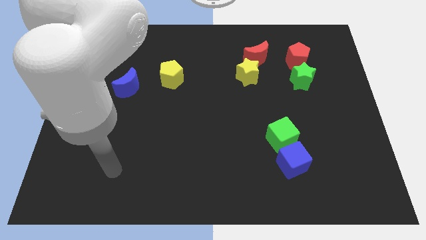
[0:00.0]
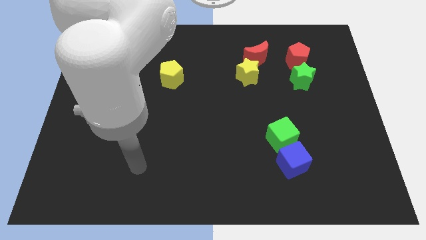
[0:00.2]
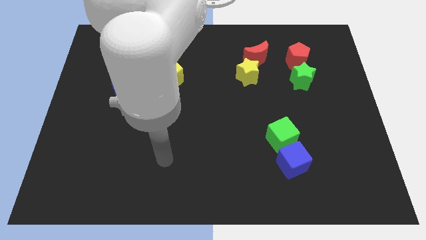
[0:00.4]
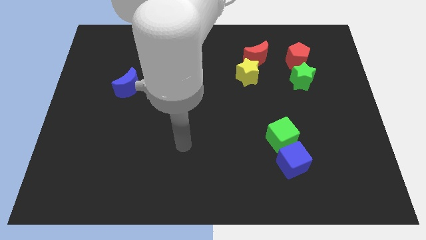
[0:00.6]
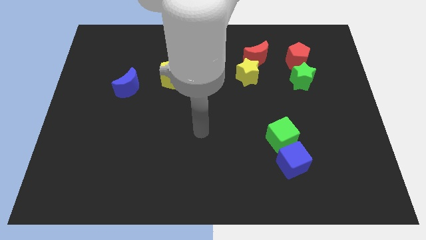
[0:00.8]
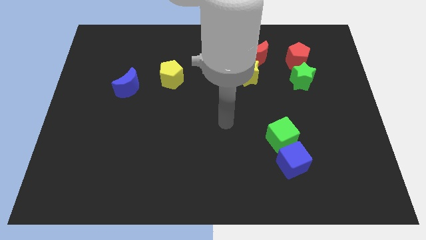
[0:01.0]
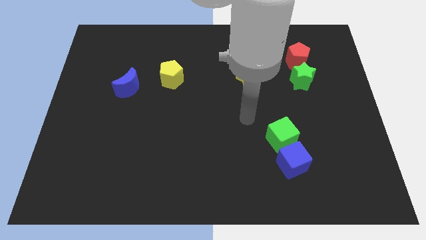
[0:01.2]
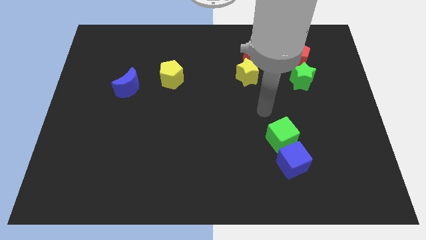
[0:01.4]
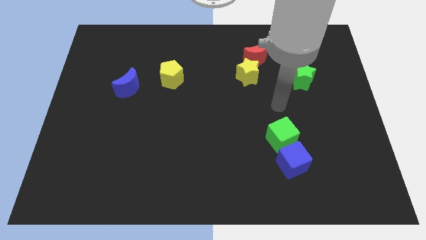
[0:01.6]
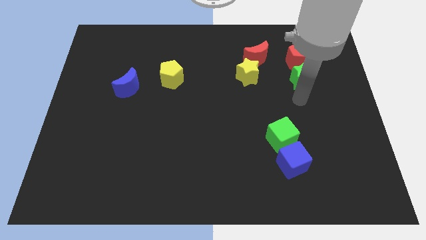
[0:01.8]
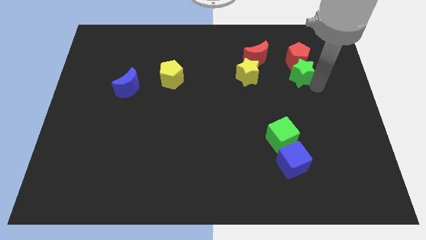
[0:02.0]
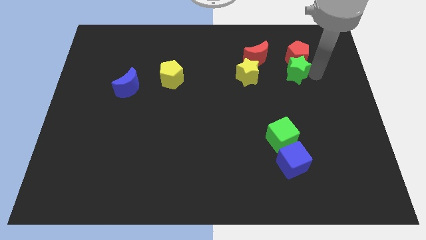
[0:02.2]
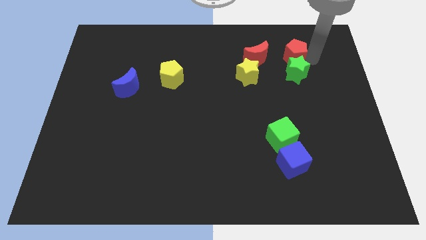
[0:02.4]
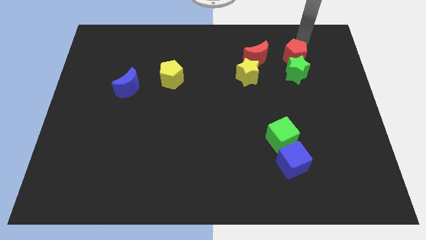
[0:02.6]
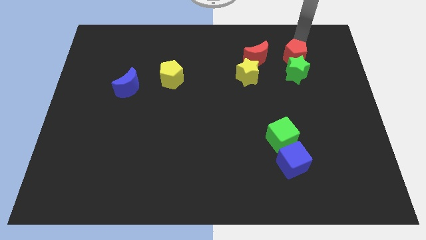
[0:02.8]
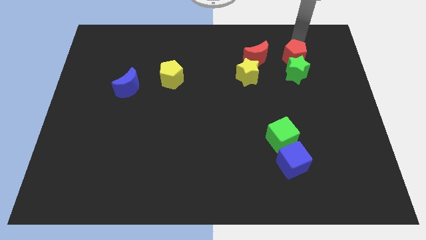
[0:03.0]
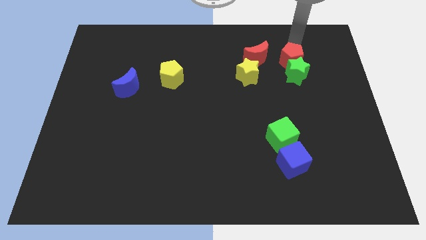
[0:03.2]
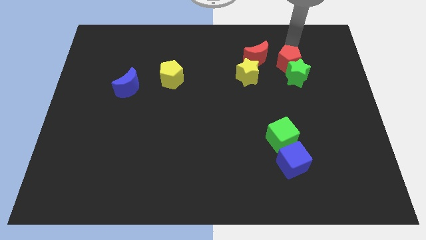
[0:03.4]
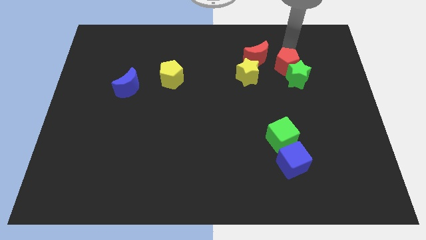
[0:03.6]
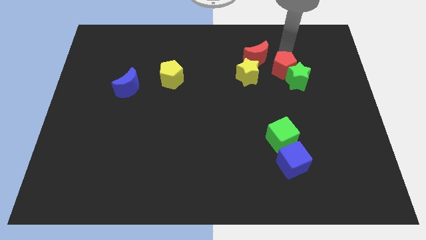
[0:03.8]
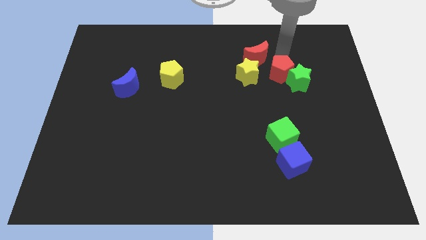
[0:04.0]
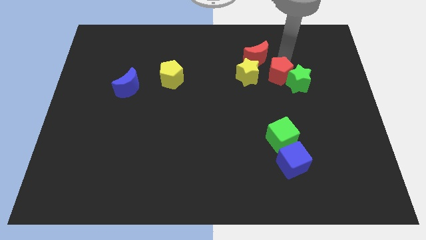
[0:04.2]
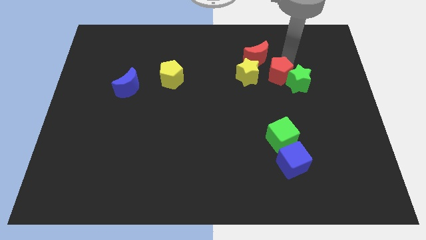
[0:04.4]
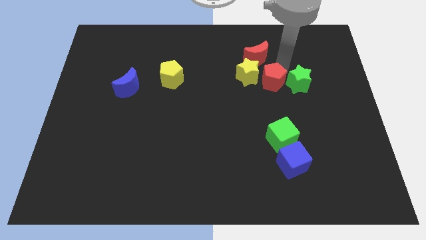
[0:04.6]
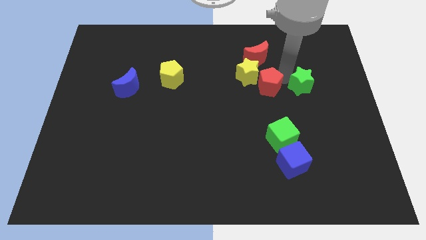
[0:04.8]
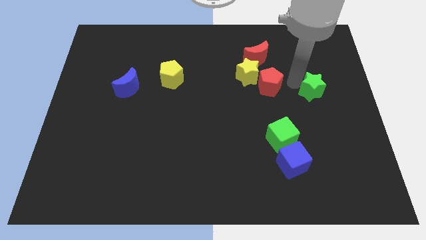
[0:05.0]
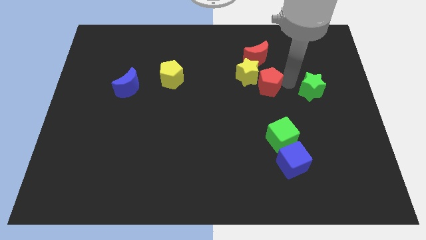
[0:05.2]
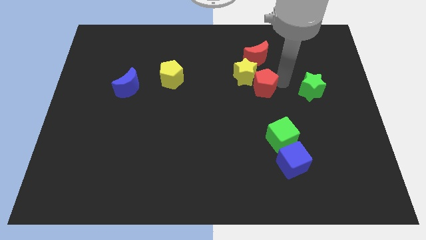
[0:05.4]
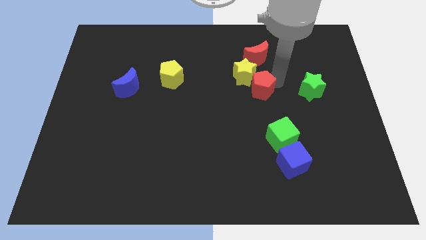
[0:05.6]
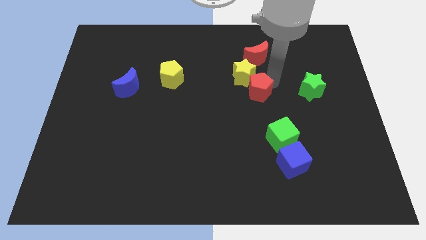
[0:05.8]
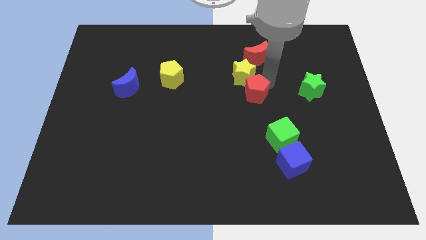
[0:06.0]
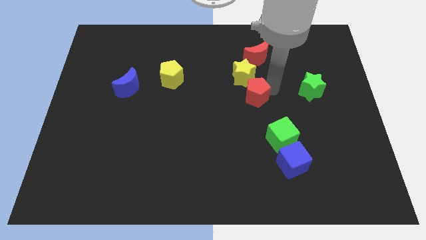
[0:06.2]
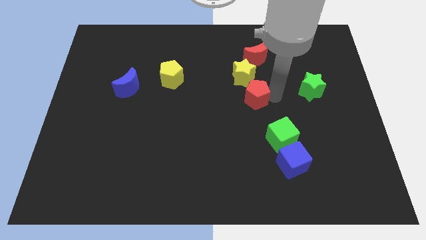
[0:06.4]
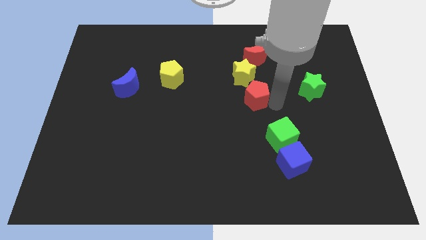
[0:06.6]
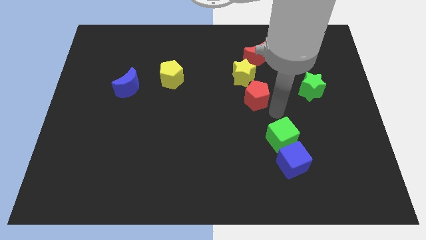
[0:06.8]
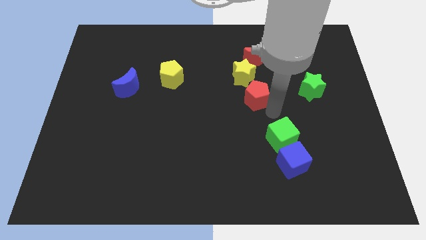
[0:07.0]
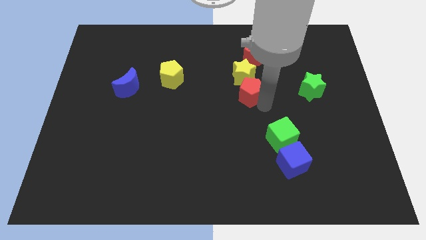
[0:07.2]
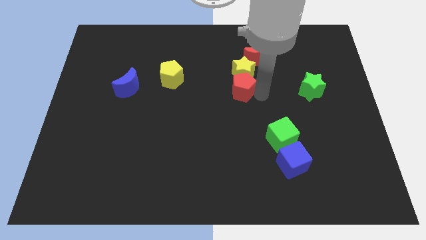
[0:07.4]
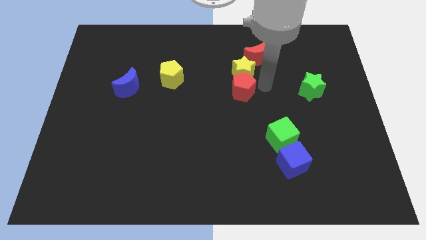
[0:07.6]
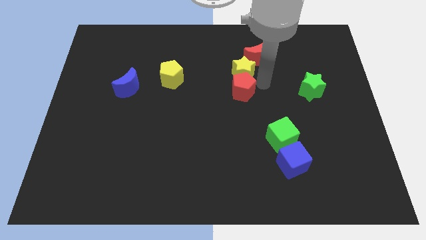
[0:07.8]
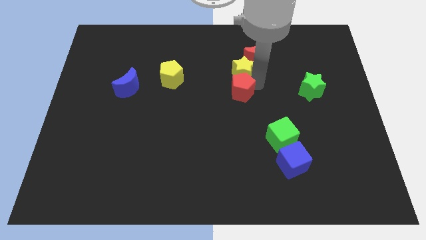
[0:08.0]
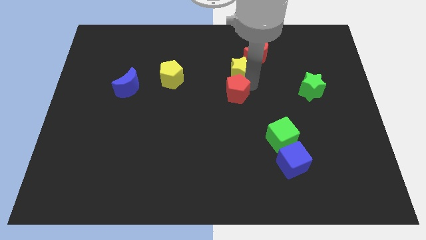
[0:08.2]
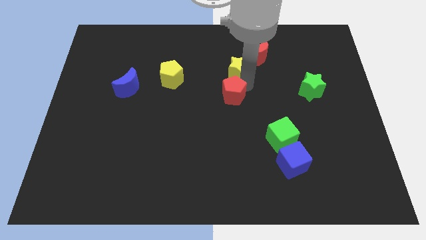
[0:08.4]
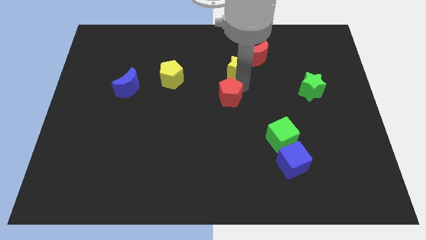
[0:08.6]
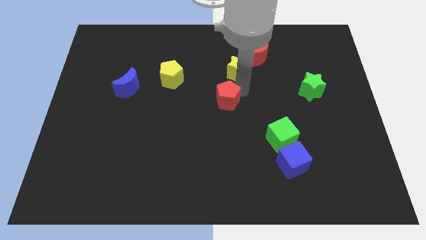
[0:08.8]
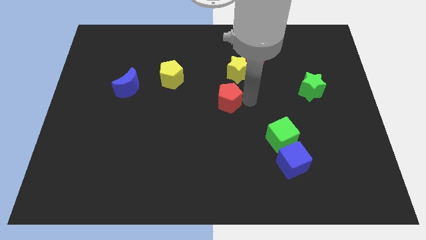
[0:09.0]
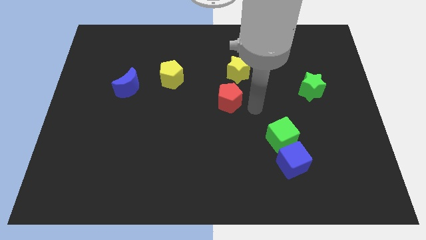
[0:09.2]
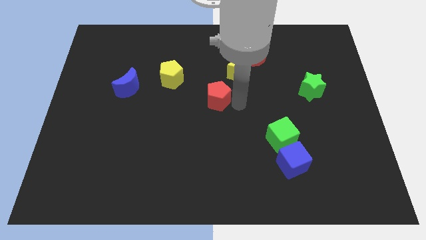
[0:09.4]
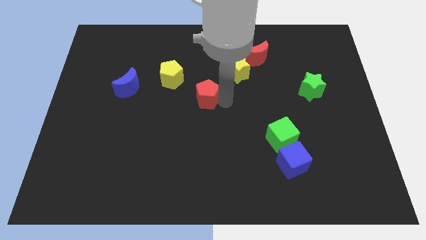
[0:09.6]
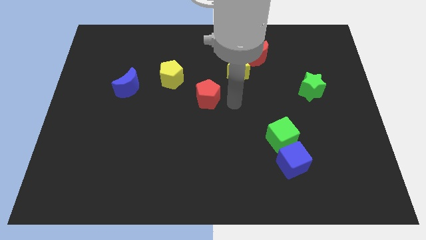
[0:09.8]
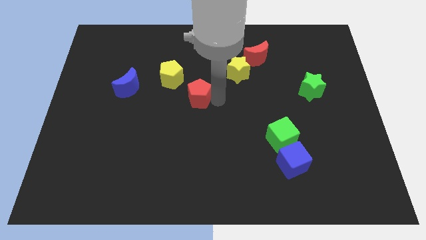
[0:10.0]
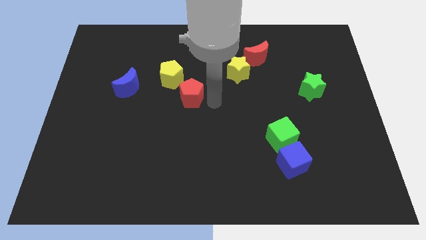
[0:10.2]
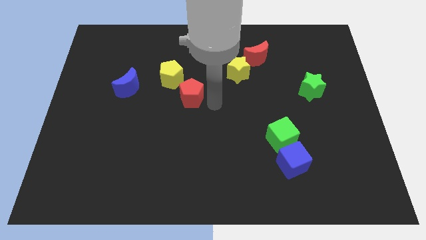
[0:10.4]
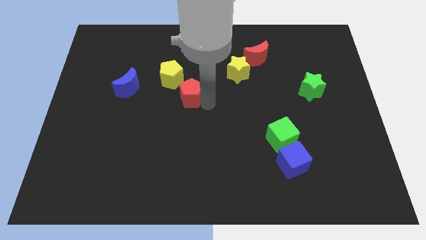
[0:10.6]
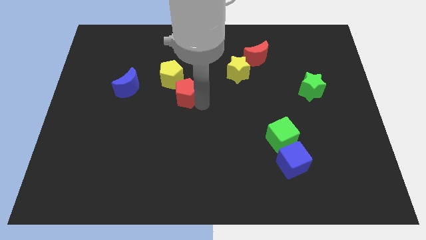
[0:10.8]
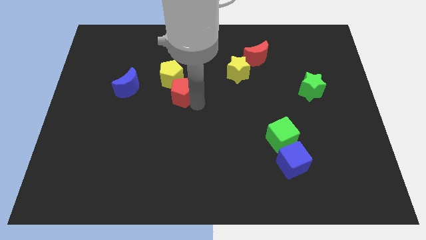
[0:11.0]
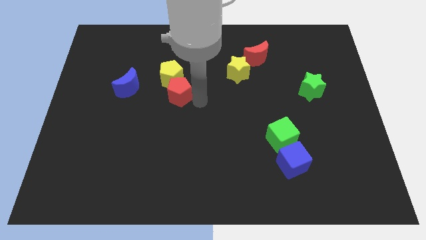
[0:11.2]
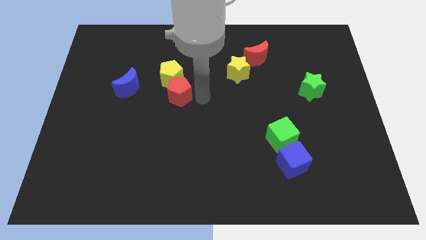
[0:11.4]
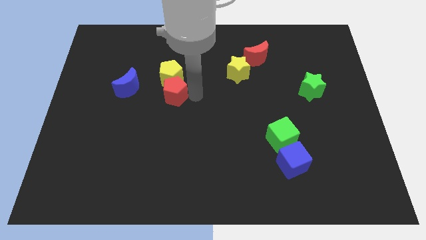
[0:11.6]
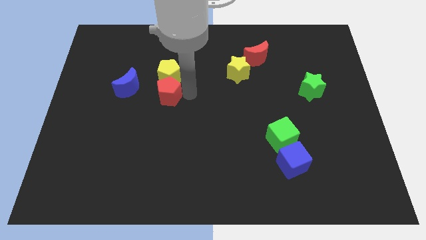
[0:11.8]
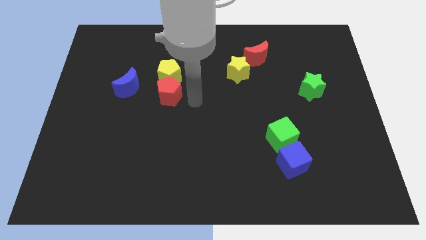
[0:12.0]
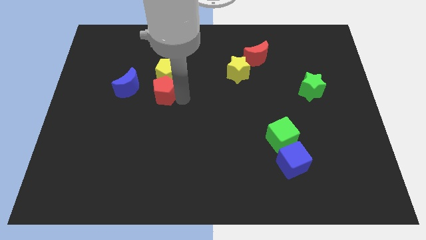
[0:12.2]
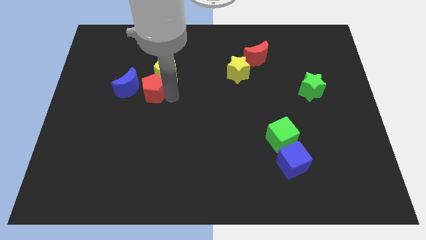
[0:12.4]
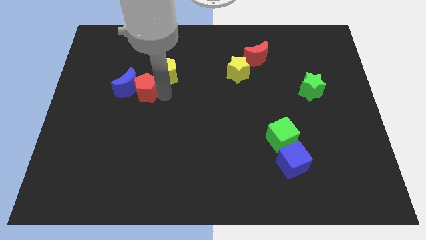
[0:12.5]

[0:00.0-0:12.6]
slide the red pentagon next to the blue moon

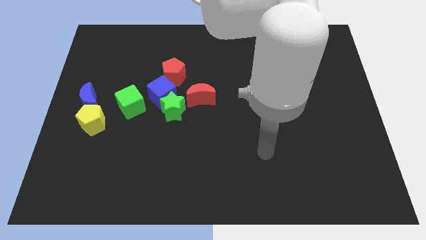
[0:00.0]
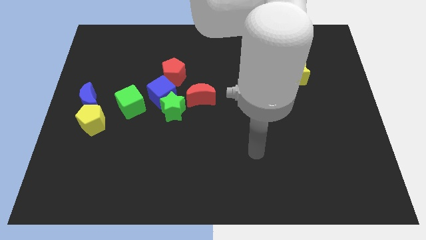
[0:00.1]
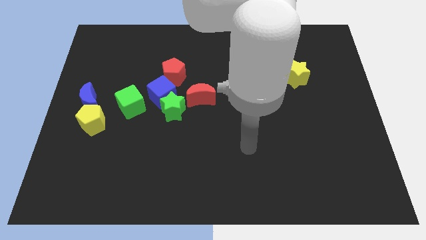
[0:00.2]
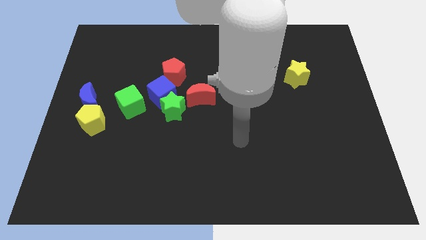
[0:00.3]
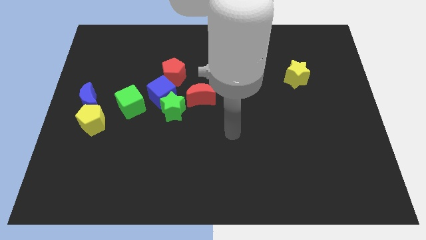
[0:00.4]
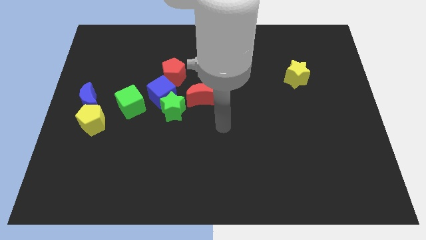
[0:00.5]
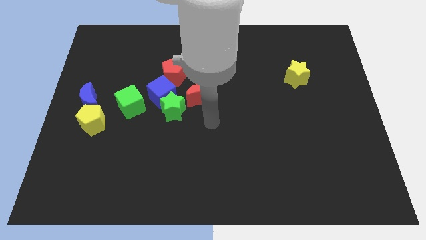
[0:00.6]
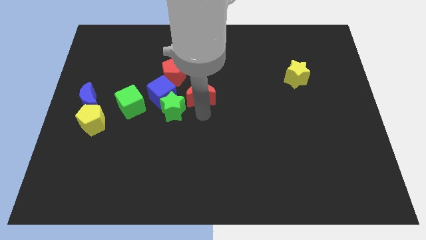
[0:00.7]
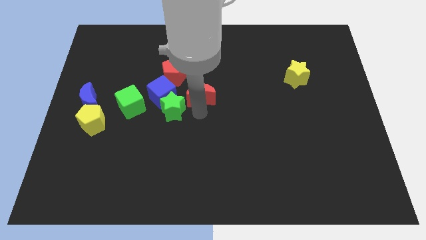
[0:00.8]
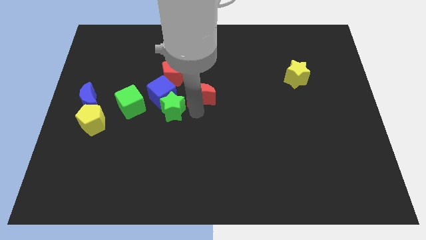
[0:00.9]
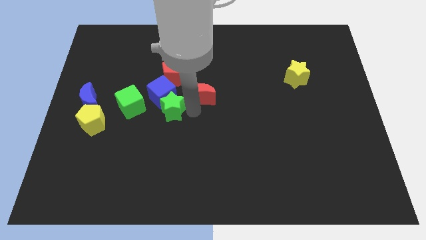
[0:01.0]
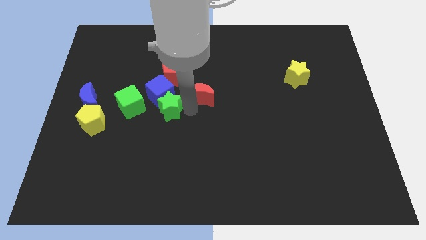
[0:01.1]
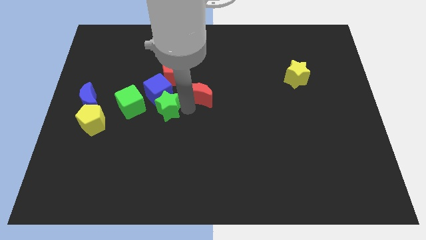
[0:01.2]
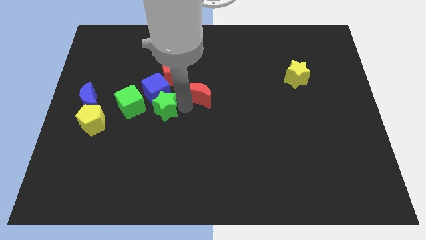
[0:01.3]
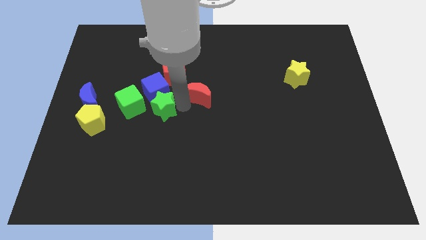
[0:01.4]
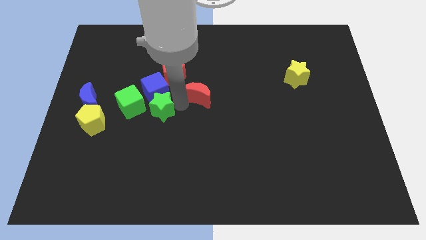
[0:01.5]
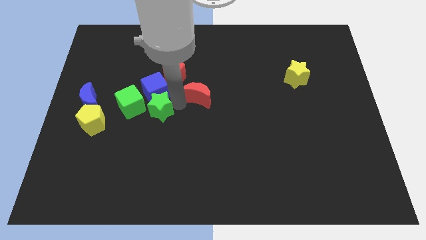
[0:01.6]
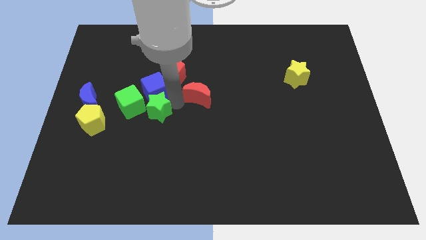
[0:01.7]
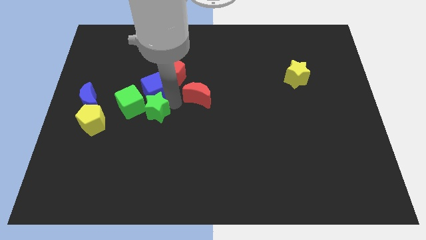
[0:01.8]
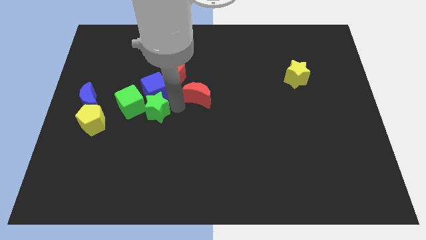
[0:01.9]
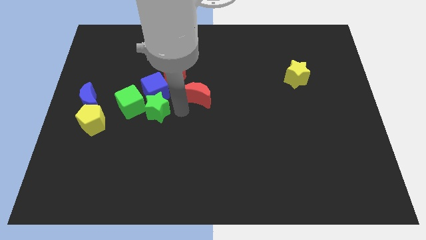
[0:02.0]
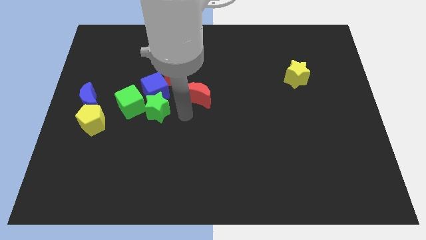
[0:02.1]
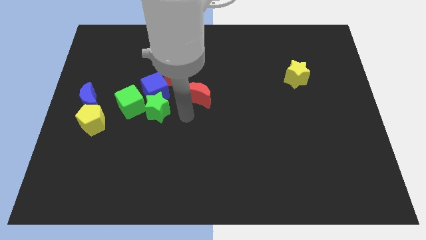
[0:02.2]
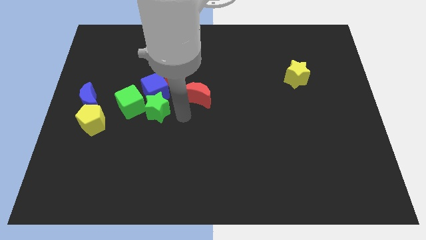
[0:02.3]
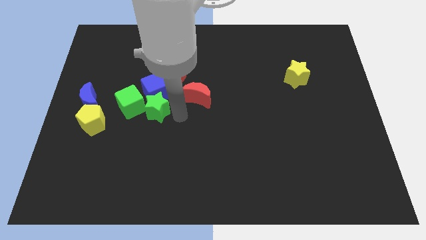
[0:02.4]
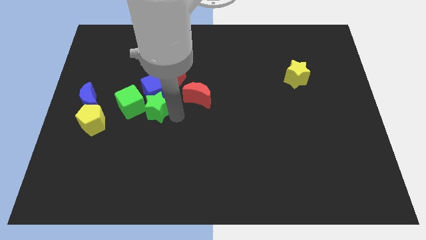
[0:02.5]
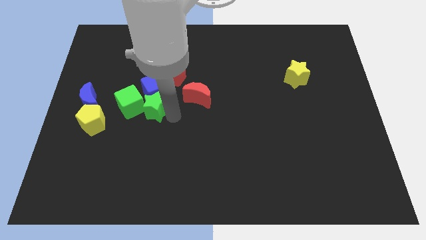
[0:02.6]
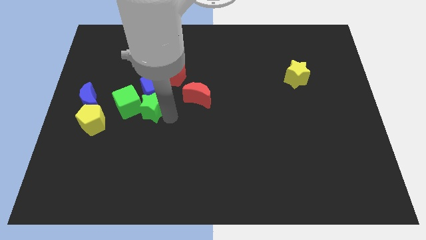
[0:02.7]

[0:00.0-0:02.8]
push the green star towards the green cube
